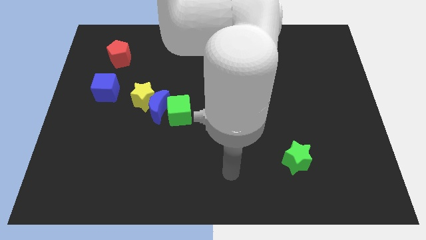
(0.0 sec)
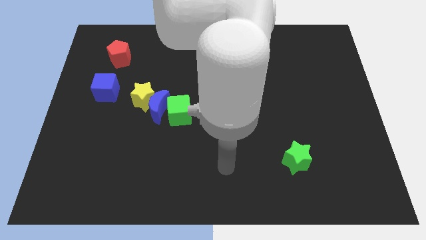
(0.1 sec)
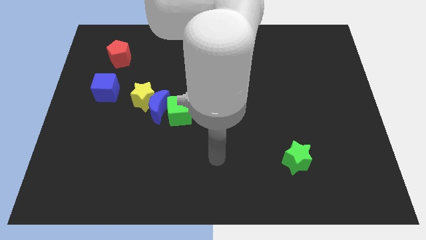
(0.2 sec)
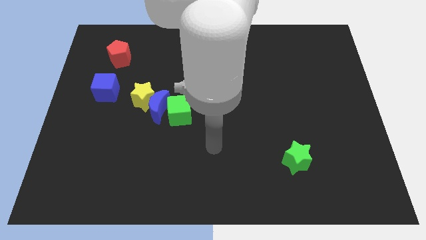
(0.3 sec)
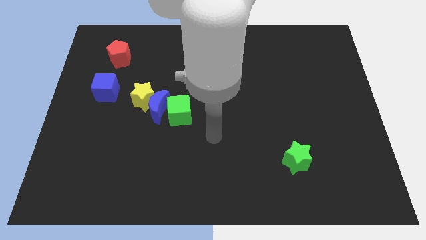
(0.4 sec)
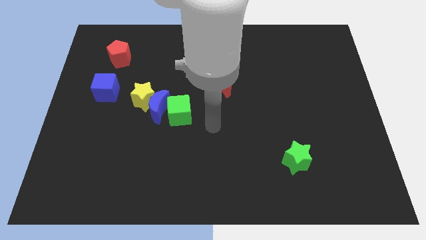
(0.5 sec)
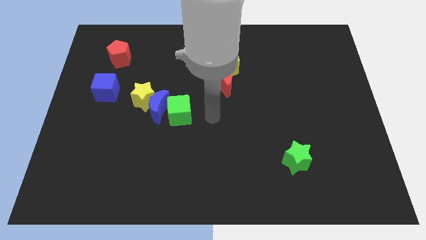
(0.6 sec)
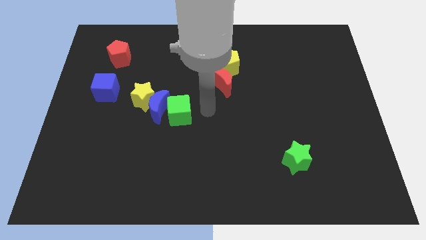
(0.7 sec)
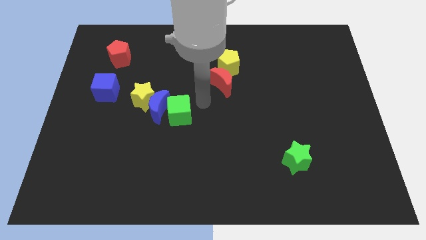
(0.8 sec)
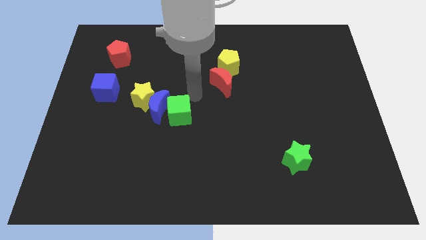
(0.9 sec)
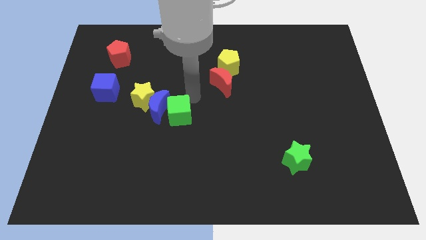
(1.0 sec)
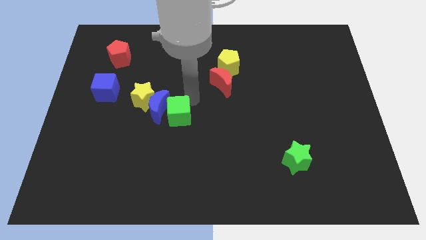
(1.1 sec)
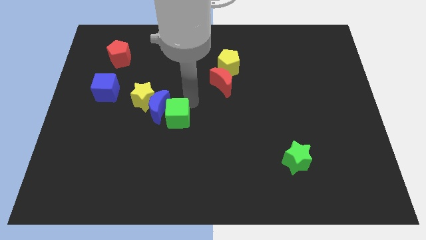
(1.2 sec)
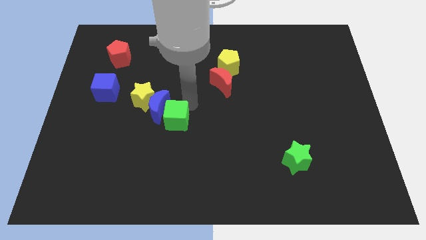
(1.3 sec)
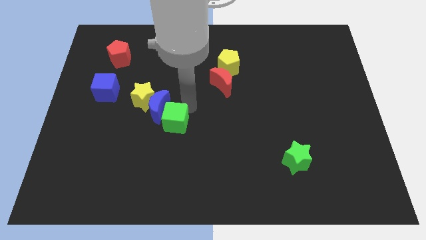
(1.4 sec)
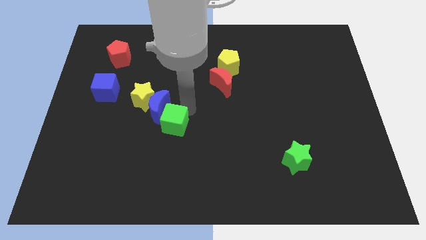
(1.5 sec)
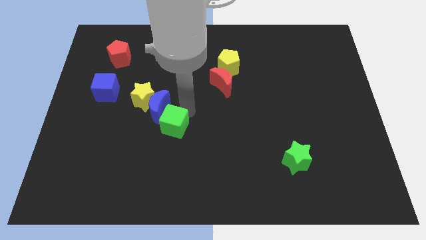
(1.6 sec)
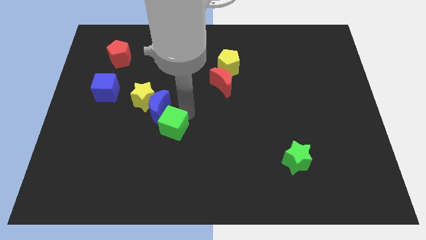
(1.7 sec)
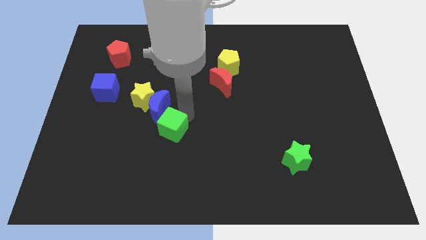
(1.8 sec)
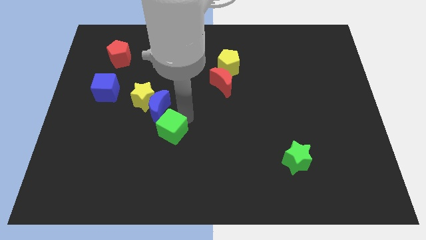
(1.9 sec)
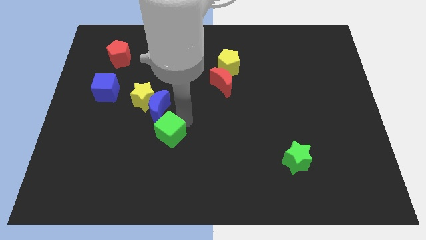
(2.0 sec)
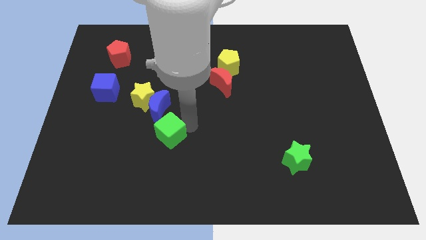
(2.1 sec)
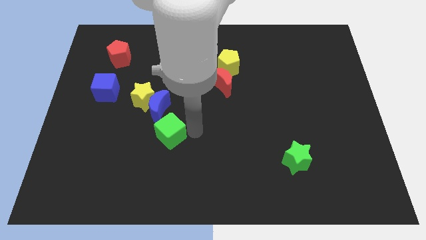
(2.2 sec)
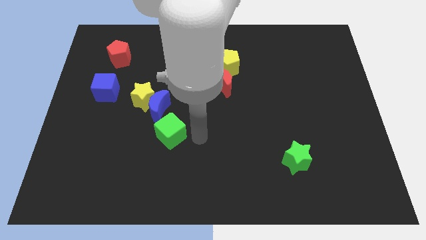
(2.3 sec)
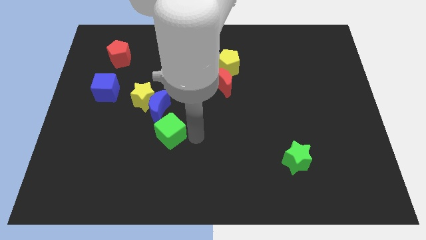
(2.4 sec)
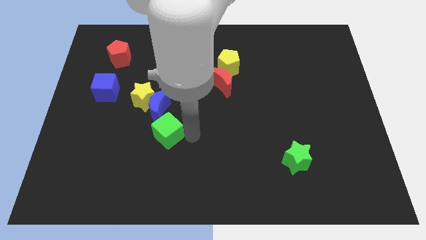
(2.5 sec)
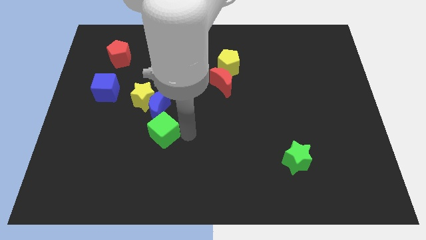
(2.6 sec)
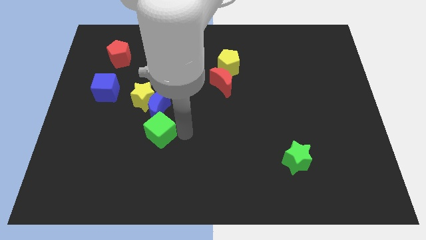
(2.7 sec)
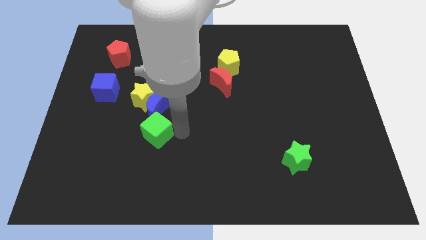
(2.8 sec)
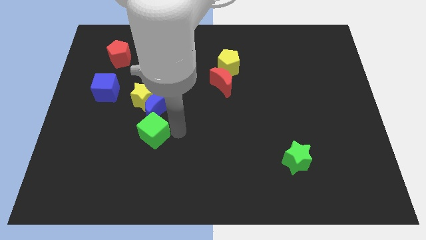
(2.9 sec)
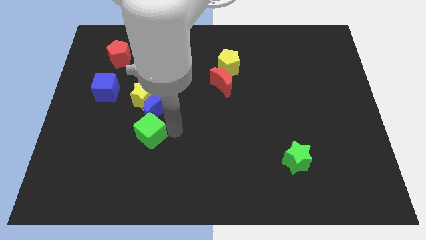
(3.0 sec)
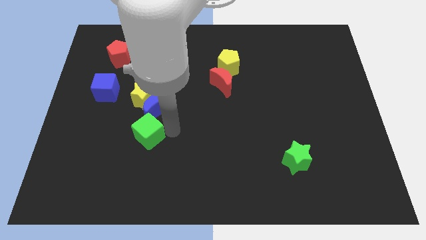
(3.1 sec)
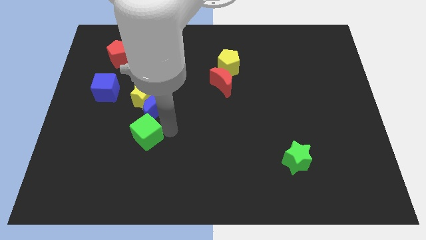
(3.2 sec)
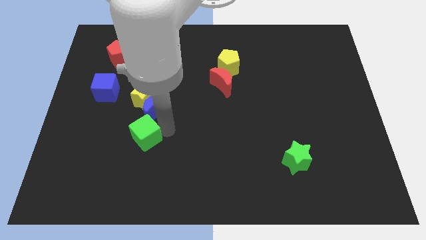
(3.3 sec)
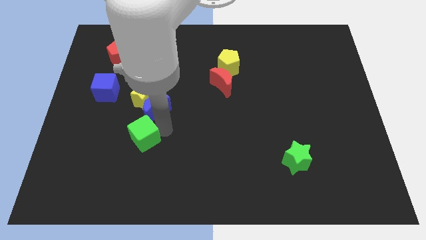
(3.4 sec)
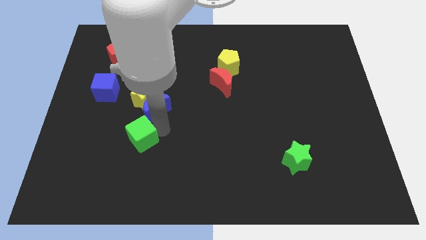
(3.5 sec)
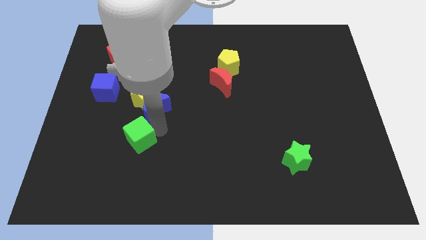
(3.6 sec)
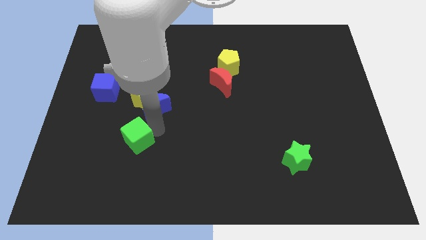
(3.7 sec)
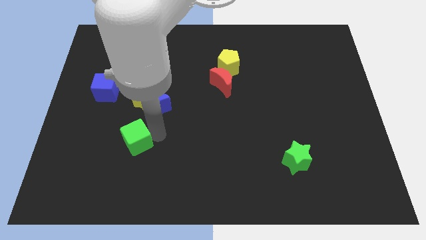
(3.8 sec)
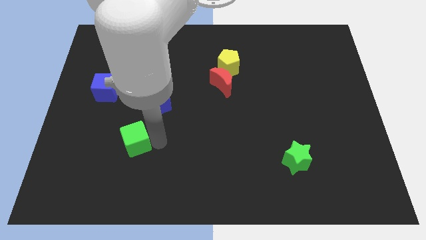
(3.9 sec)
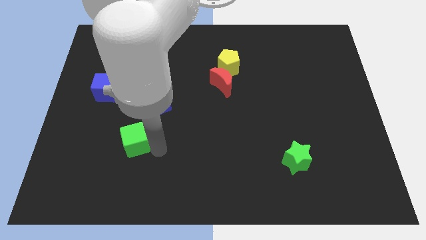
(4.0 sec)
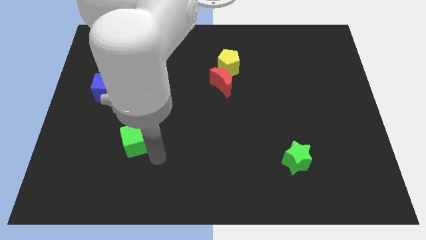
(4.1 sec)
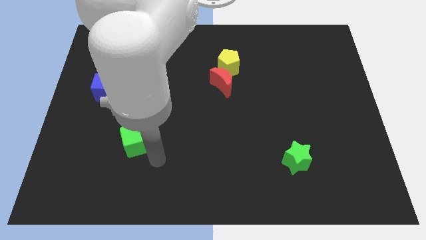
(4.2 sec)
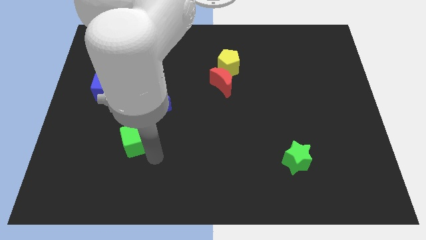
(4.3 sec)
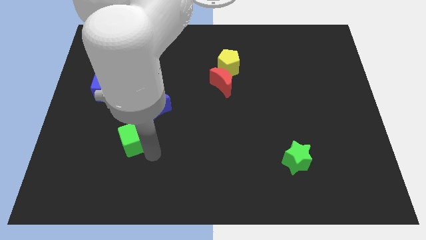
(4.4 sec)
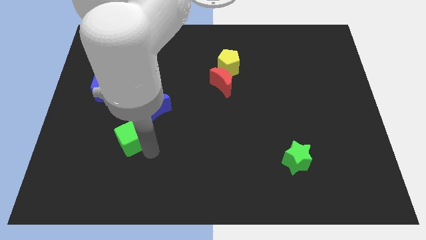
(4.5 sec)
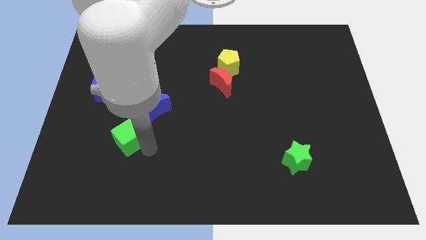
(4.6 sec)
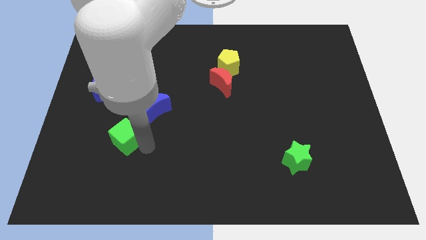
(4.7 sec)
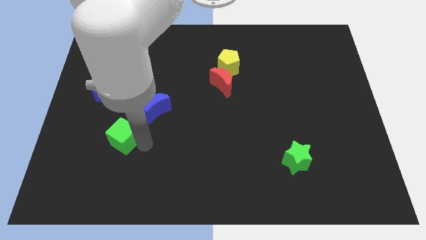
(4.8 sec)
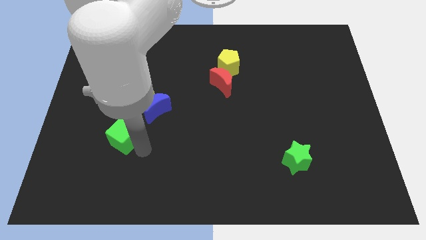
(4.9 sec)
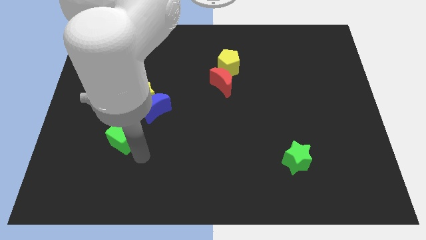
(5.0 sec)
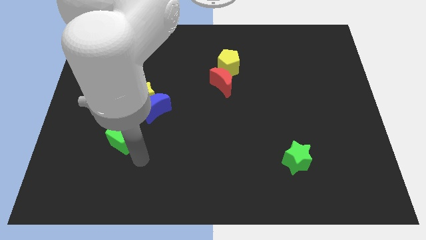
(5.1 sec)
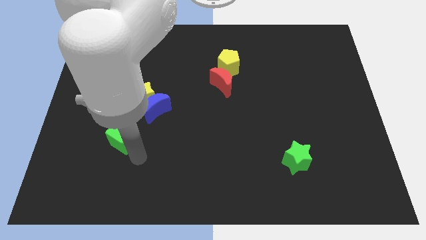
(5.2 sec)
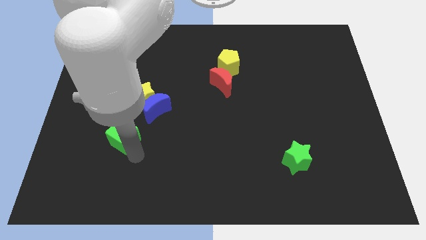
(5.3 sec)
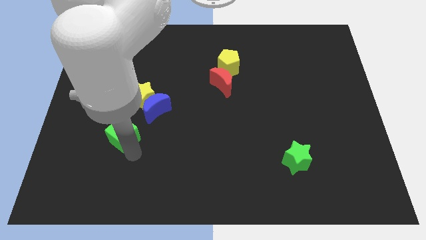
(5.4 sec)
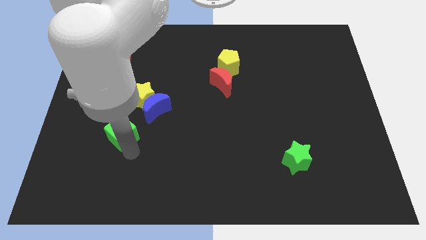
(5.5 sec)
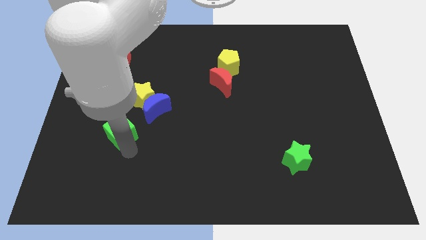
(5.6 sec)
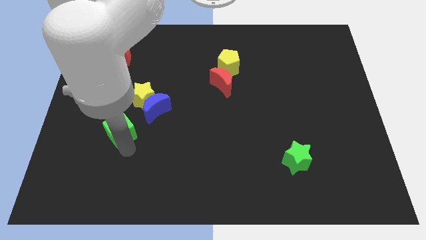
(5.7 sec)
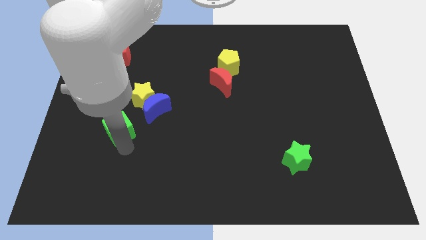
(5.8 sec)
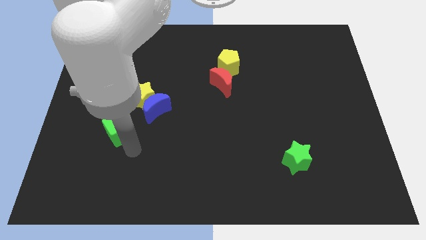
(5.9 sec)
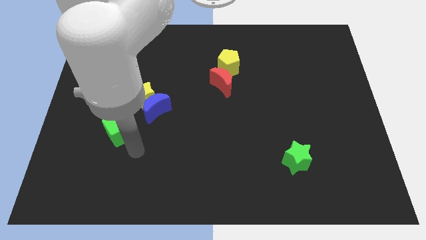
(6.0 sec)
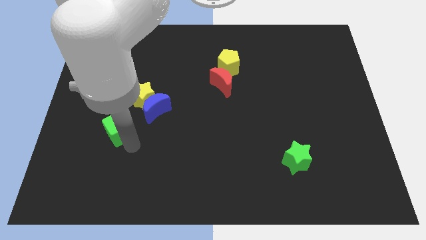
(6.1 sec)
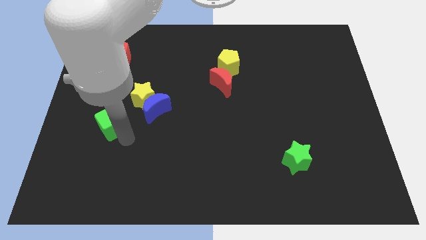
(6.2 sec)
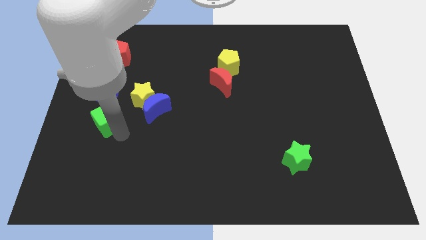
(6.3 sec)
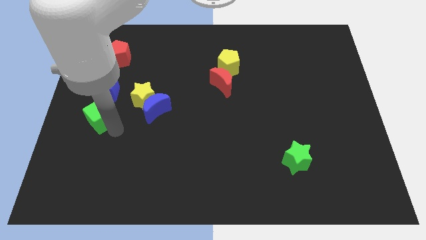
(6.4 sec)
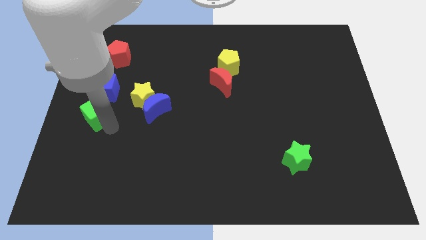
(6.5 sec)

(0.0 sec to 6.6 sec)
move the green cube to the left side of the board

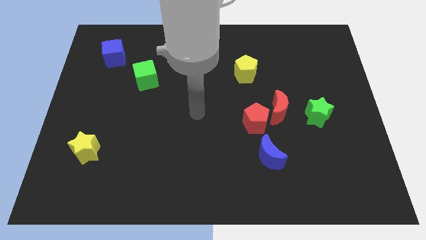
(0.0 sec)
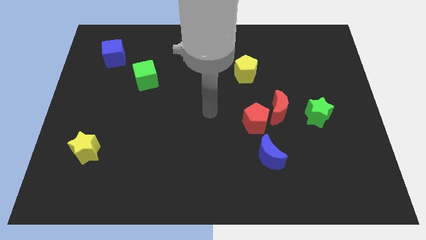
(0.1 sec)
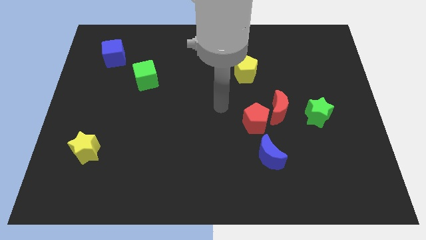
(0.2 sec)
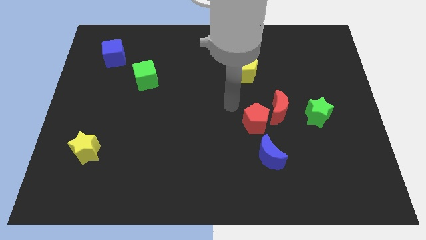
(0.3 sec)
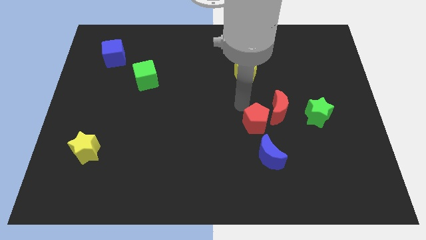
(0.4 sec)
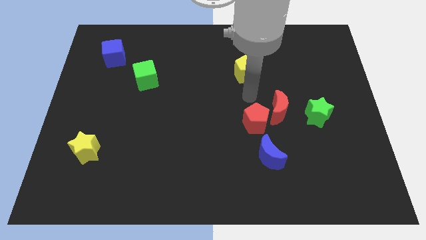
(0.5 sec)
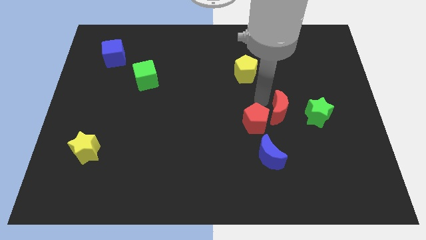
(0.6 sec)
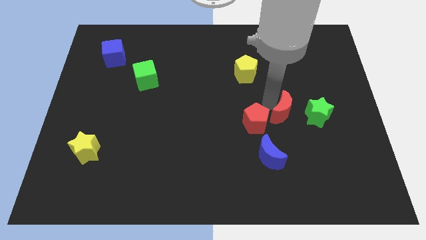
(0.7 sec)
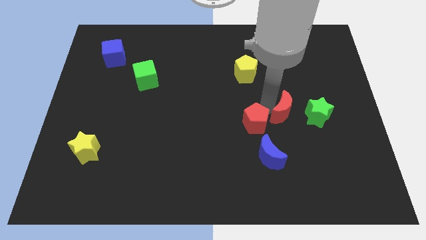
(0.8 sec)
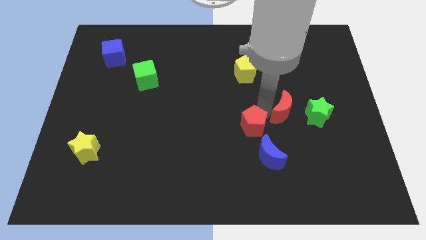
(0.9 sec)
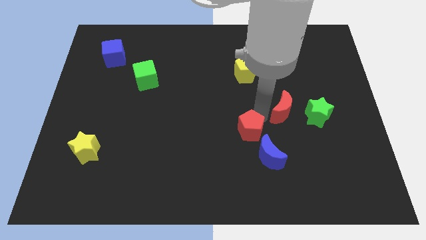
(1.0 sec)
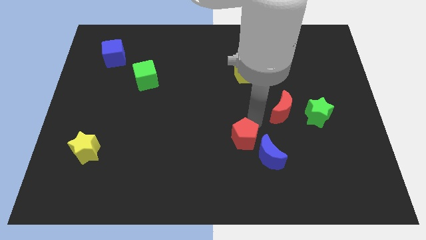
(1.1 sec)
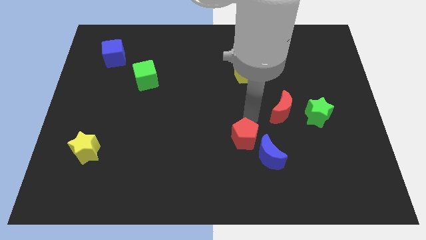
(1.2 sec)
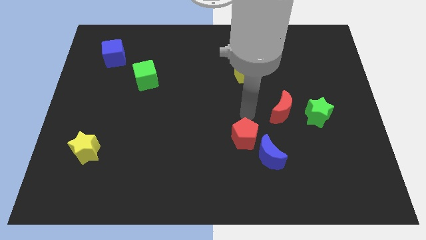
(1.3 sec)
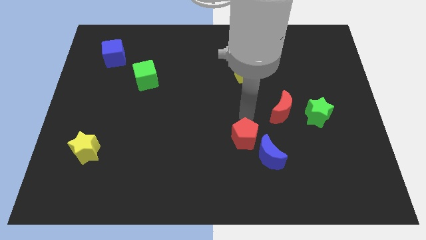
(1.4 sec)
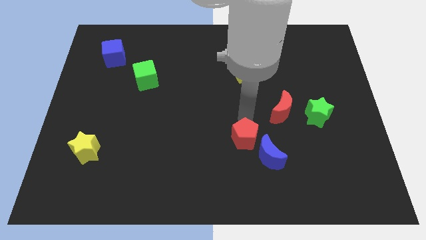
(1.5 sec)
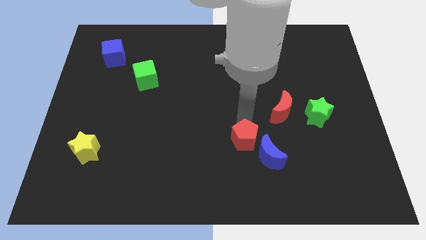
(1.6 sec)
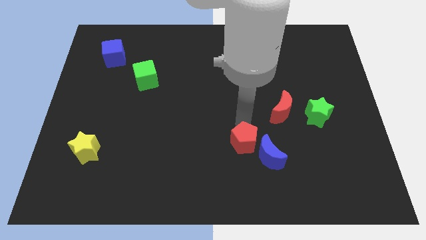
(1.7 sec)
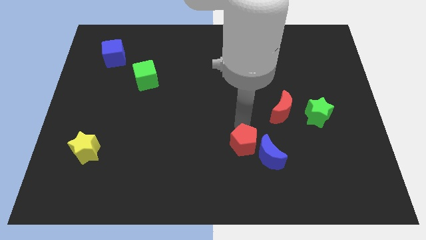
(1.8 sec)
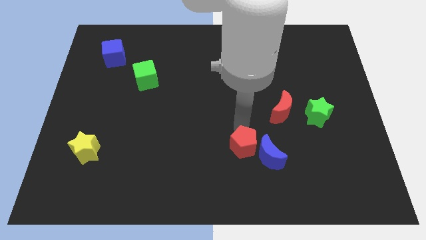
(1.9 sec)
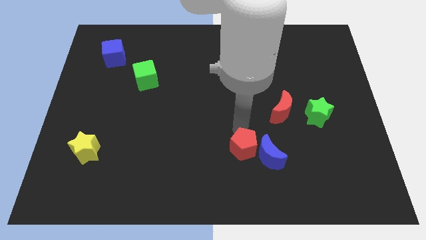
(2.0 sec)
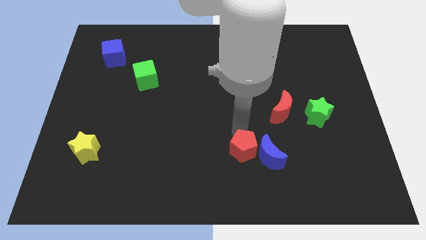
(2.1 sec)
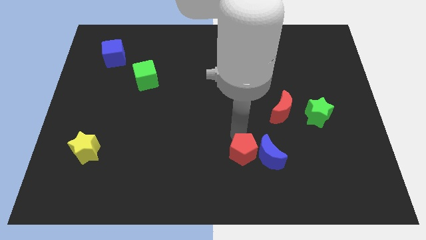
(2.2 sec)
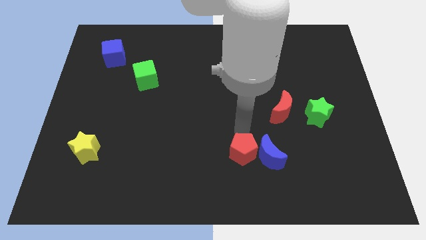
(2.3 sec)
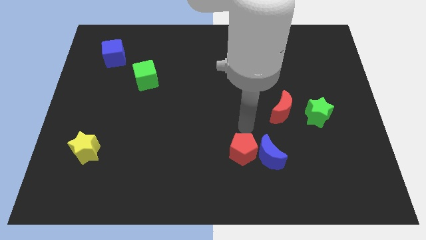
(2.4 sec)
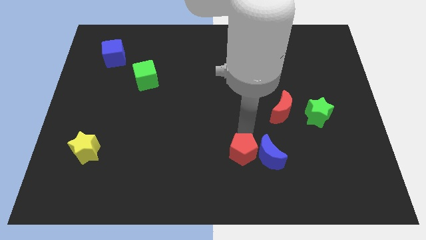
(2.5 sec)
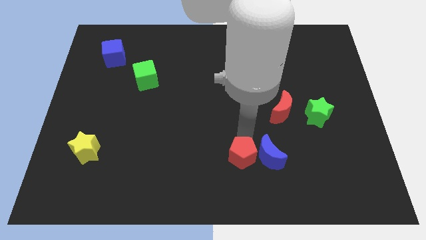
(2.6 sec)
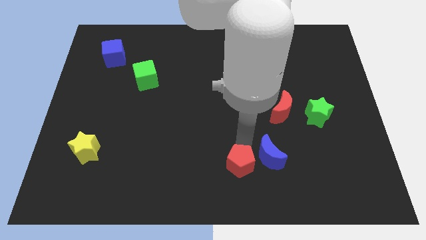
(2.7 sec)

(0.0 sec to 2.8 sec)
move the red pentagon to the bottom
